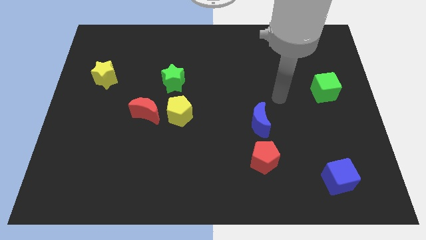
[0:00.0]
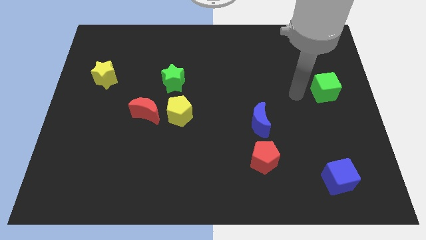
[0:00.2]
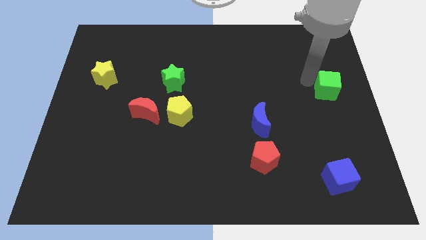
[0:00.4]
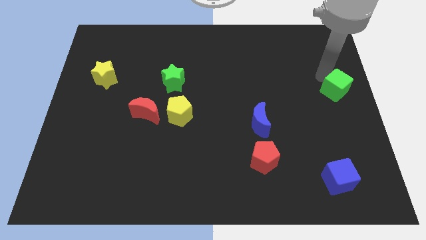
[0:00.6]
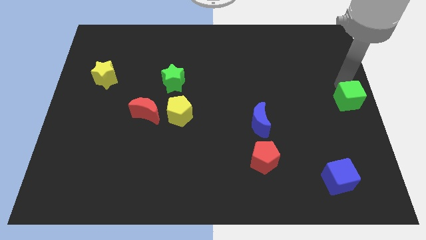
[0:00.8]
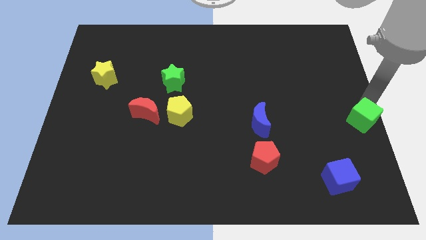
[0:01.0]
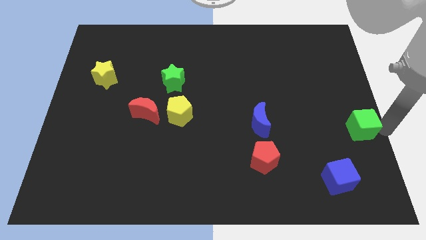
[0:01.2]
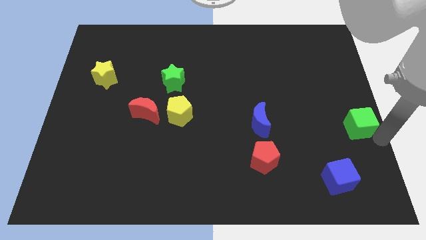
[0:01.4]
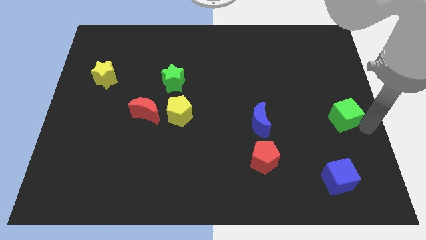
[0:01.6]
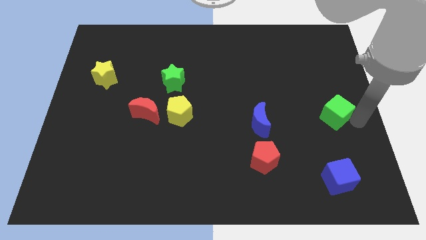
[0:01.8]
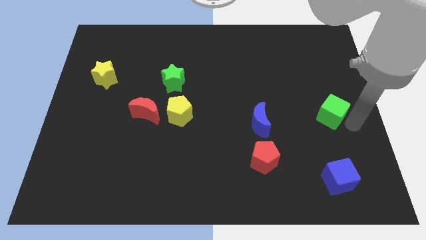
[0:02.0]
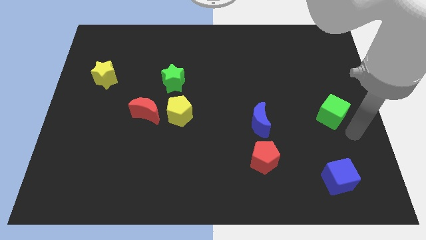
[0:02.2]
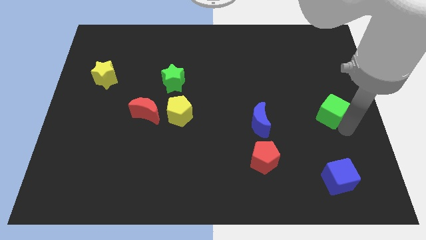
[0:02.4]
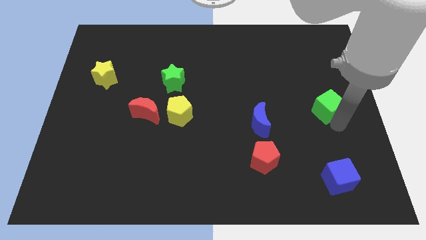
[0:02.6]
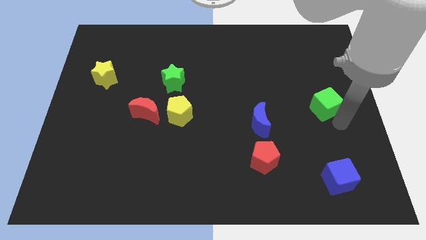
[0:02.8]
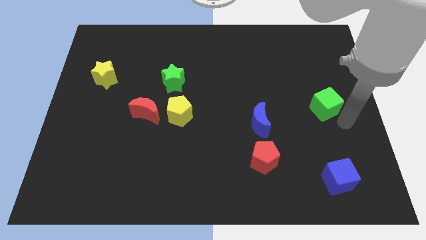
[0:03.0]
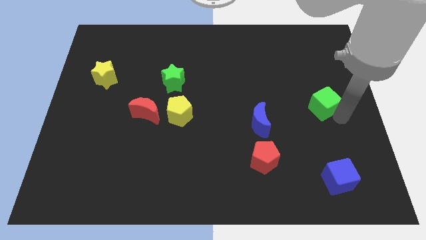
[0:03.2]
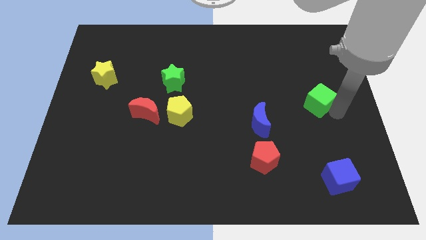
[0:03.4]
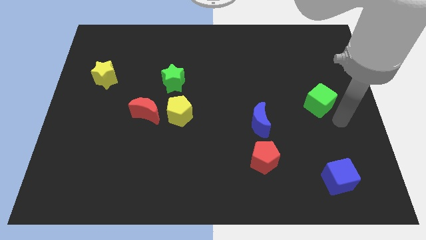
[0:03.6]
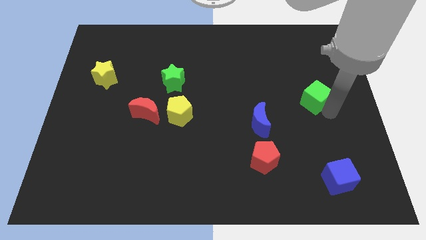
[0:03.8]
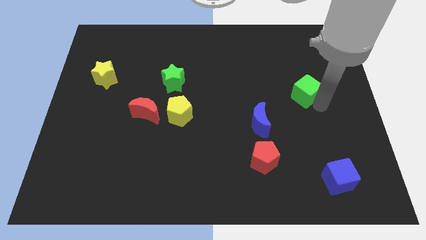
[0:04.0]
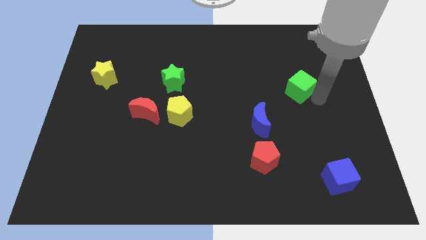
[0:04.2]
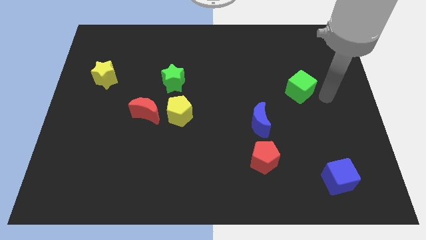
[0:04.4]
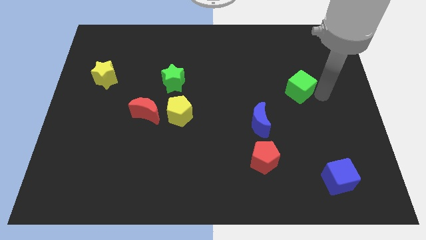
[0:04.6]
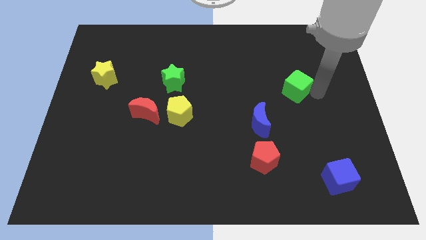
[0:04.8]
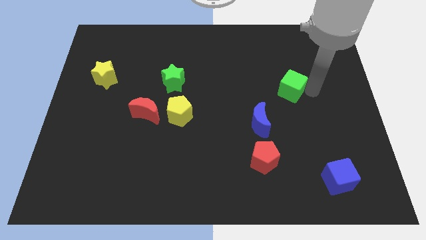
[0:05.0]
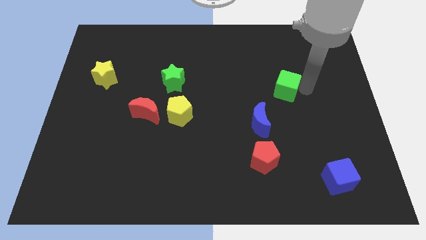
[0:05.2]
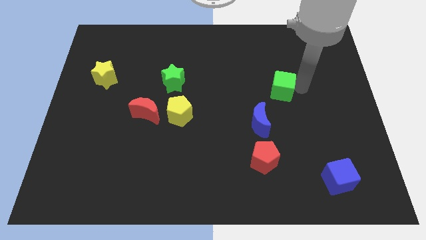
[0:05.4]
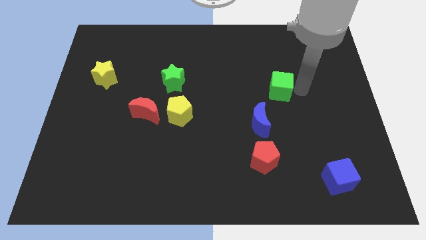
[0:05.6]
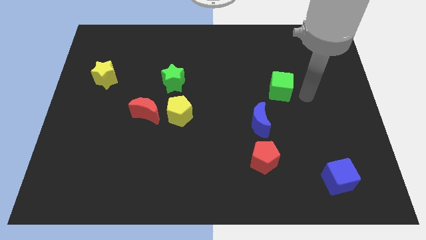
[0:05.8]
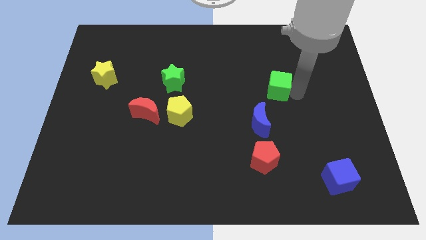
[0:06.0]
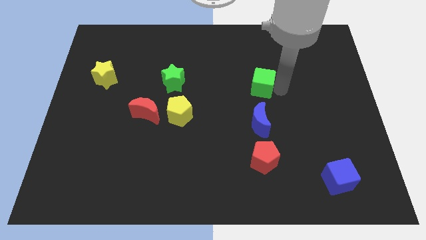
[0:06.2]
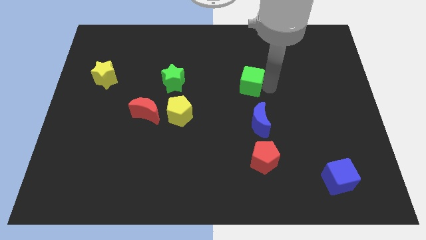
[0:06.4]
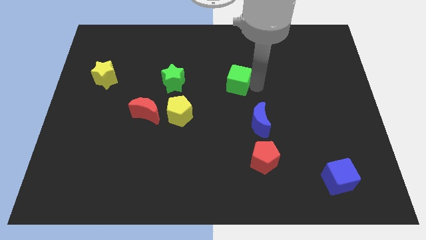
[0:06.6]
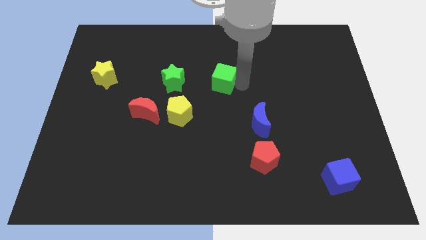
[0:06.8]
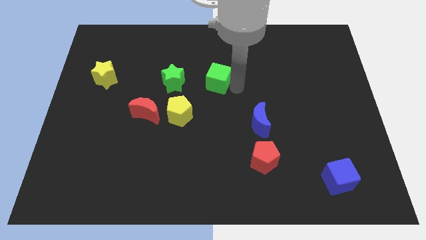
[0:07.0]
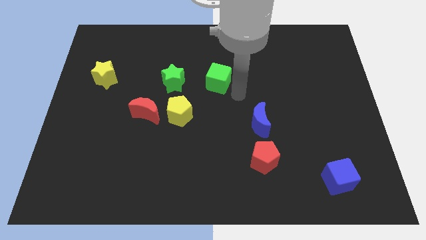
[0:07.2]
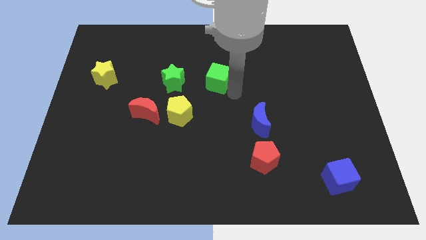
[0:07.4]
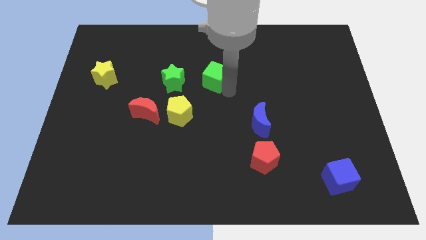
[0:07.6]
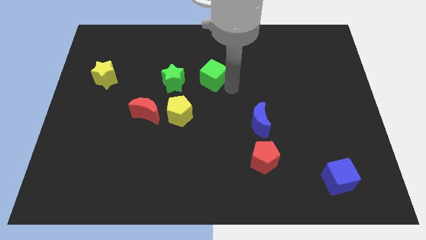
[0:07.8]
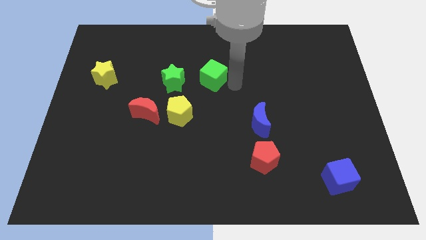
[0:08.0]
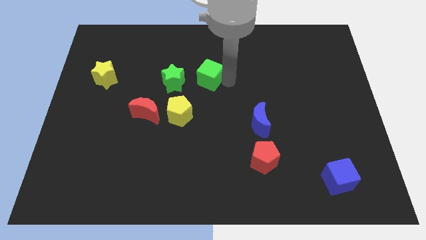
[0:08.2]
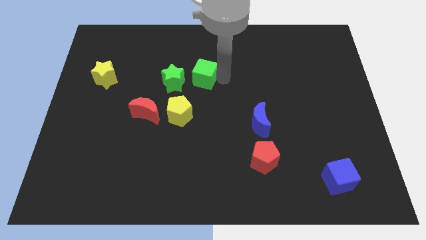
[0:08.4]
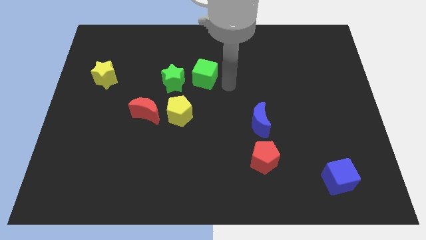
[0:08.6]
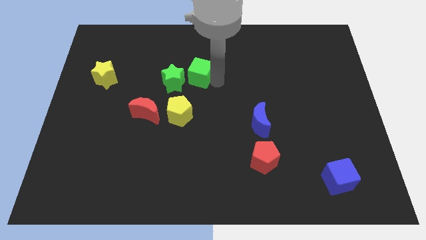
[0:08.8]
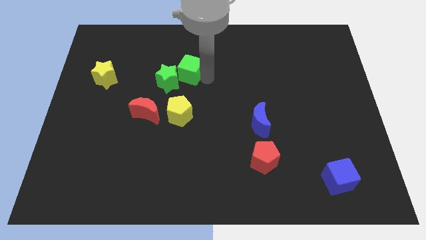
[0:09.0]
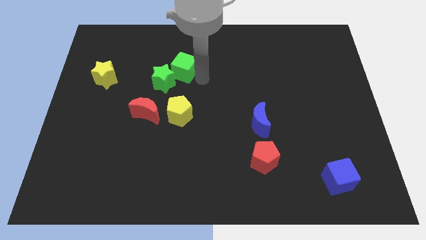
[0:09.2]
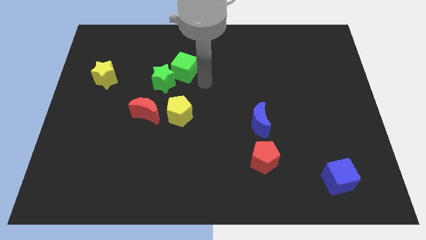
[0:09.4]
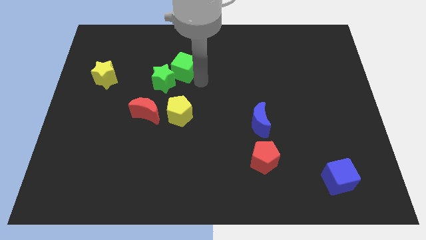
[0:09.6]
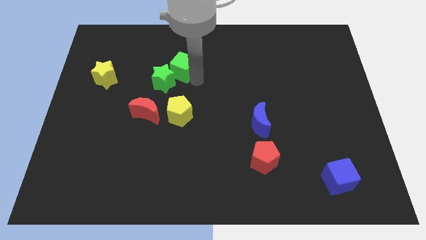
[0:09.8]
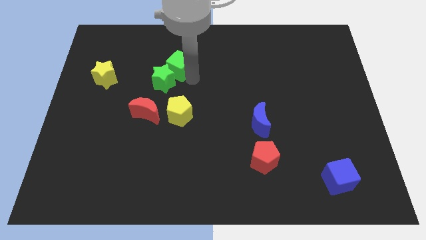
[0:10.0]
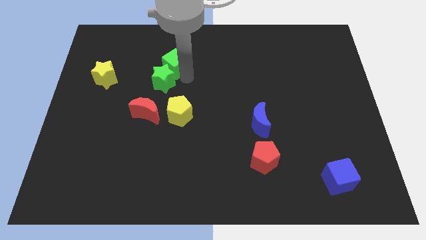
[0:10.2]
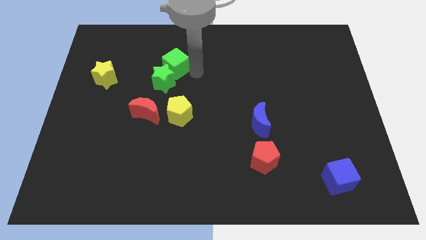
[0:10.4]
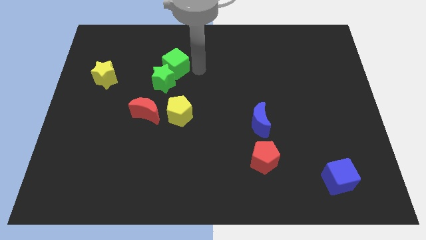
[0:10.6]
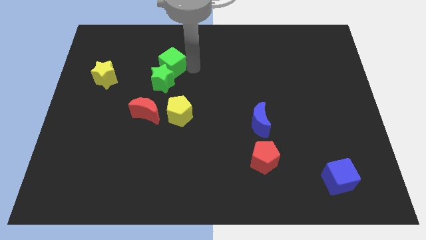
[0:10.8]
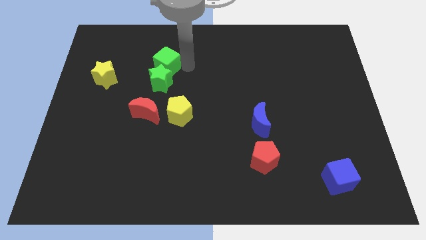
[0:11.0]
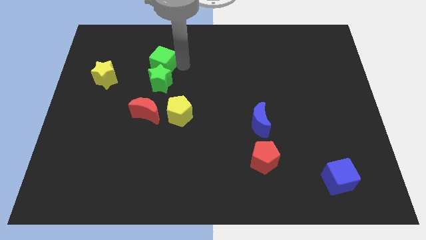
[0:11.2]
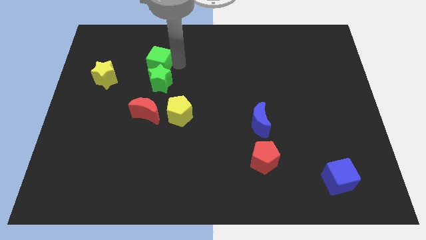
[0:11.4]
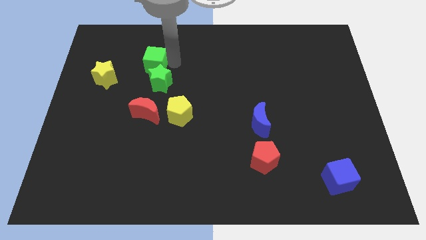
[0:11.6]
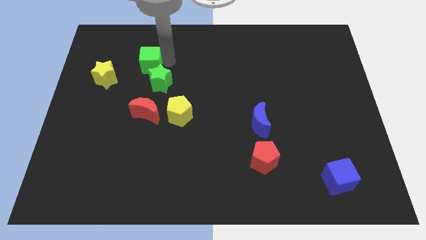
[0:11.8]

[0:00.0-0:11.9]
move the green cube diagonally up and to the right of the yellow star

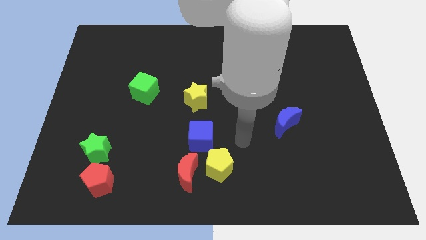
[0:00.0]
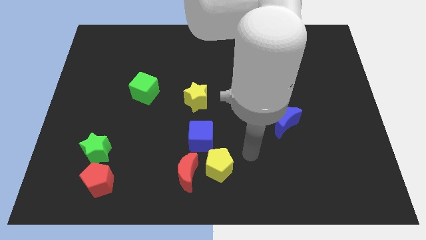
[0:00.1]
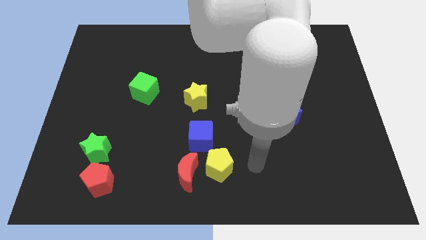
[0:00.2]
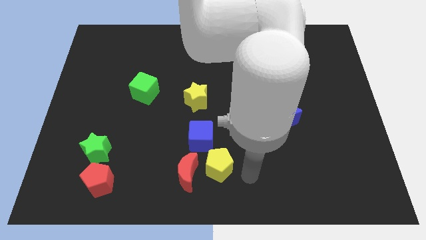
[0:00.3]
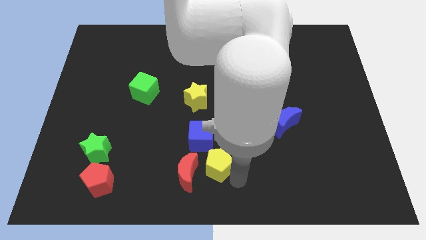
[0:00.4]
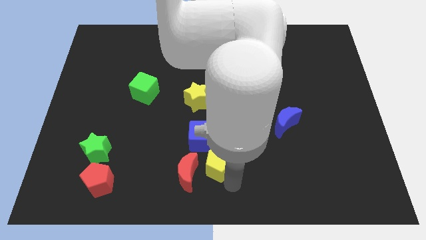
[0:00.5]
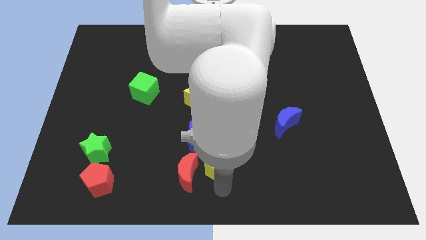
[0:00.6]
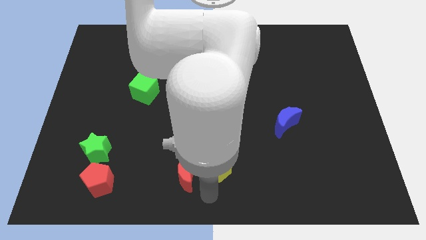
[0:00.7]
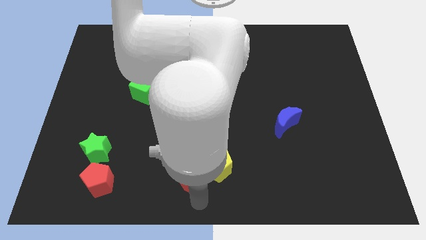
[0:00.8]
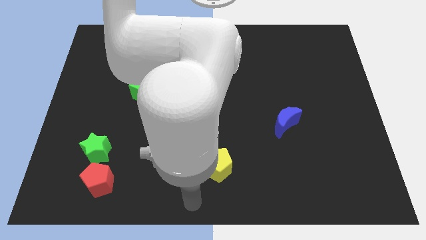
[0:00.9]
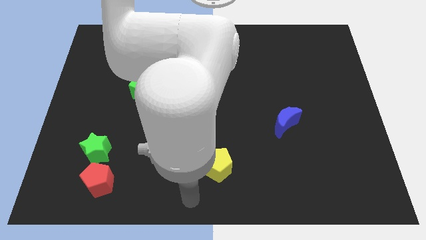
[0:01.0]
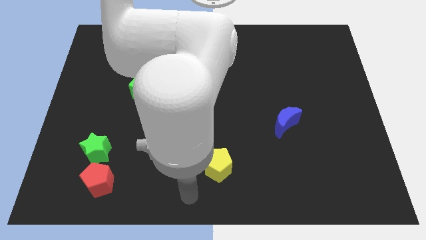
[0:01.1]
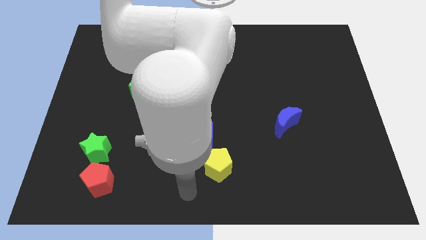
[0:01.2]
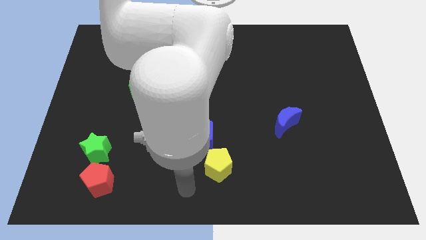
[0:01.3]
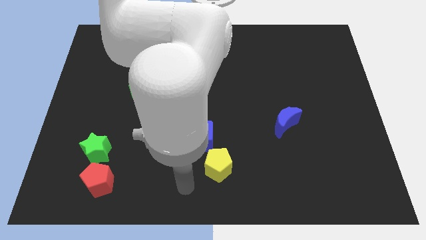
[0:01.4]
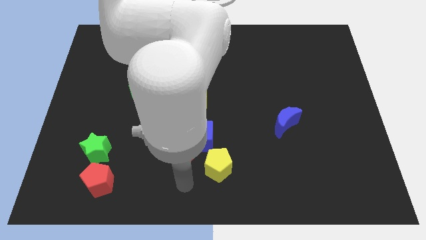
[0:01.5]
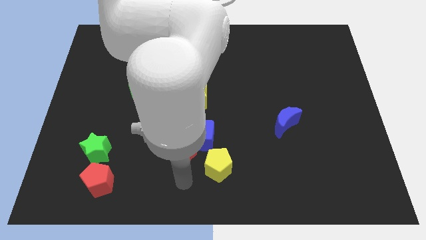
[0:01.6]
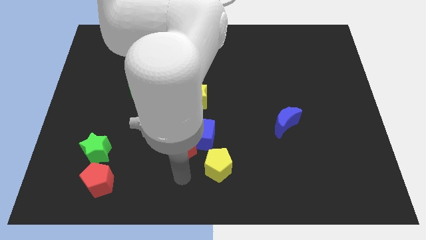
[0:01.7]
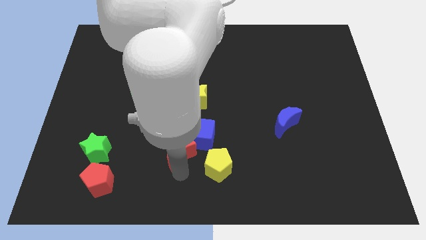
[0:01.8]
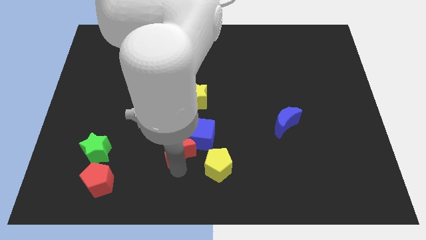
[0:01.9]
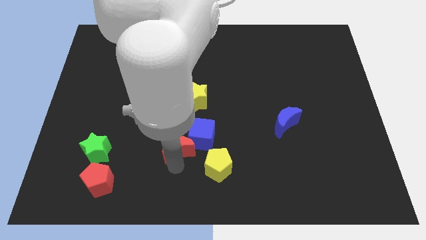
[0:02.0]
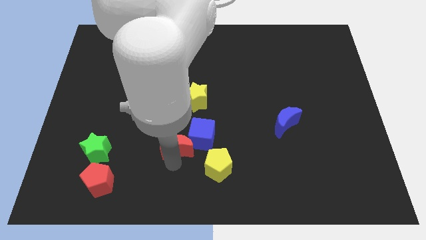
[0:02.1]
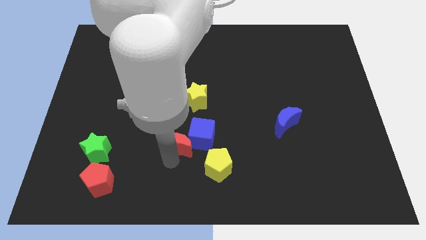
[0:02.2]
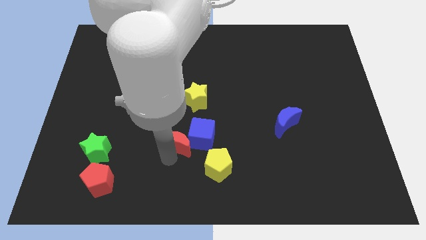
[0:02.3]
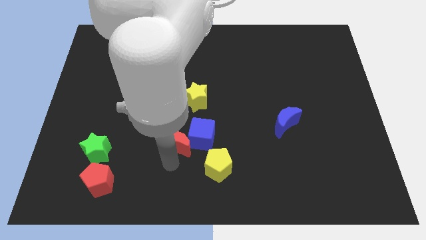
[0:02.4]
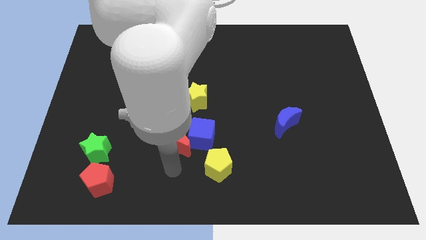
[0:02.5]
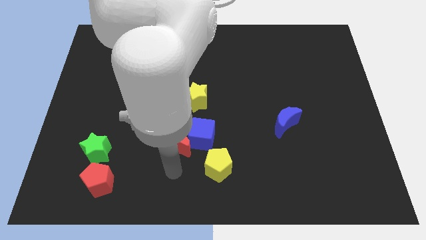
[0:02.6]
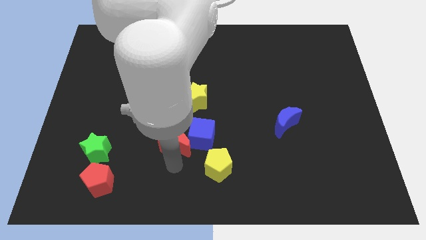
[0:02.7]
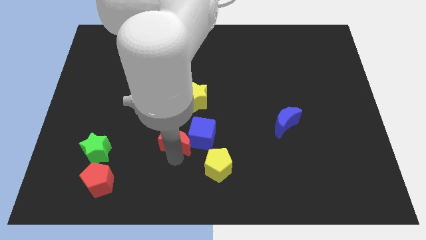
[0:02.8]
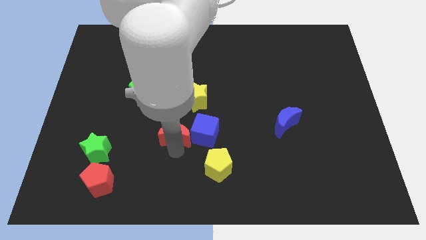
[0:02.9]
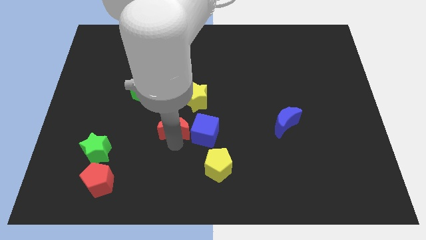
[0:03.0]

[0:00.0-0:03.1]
slide the red moon diagonally up and to the left of the blue cube
